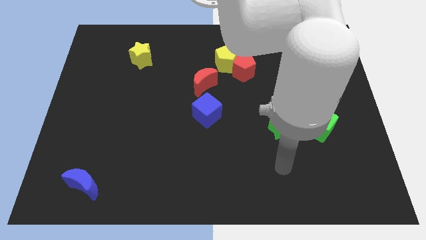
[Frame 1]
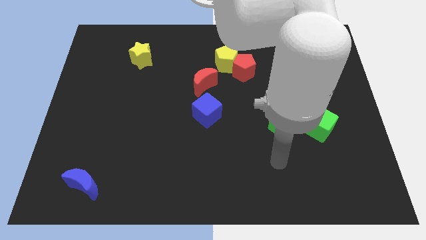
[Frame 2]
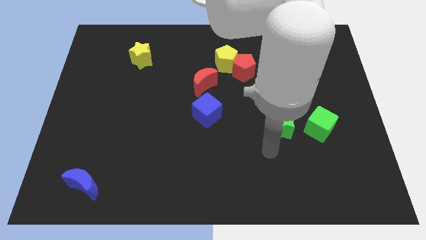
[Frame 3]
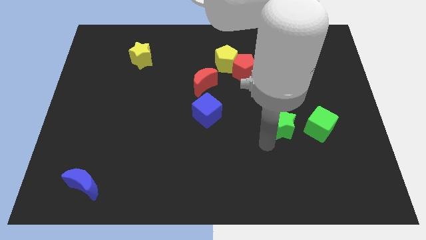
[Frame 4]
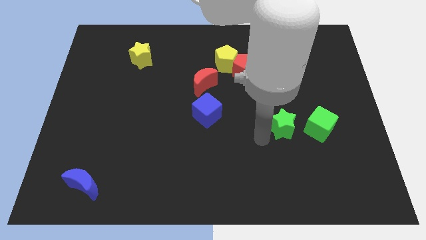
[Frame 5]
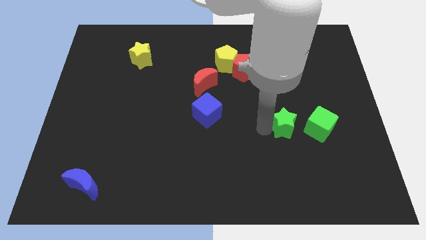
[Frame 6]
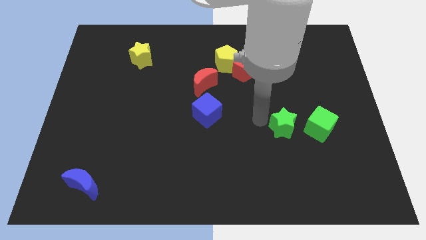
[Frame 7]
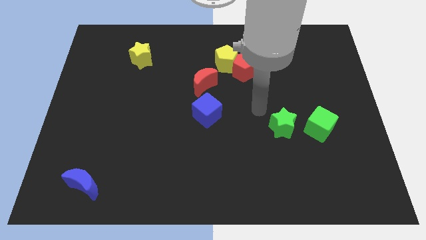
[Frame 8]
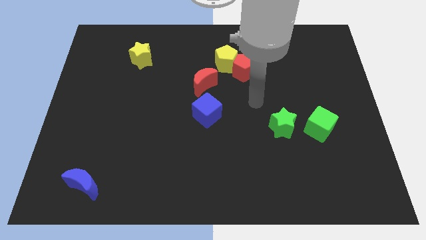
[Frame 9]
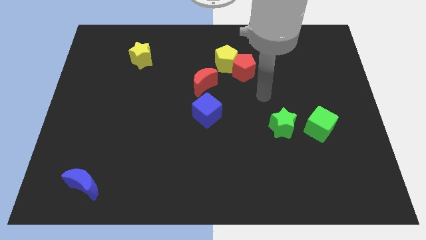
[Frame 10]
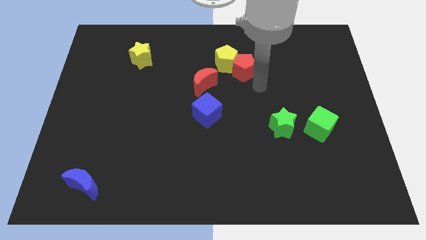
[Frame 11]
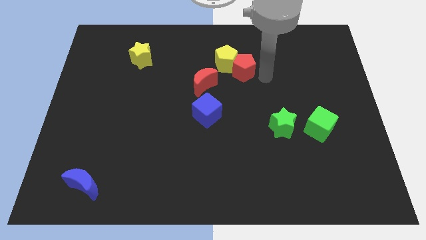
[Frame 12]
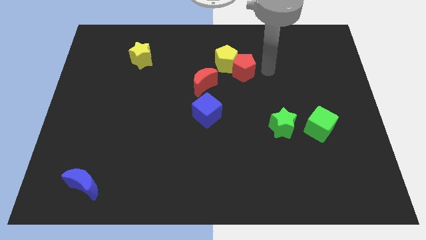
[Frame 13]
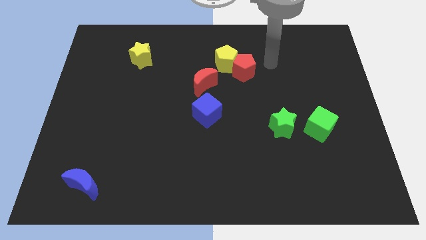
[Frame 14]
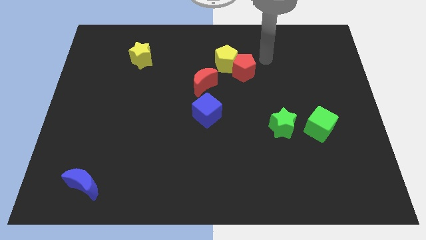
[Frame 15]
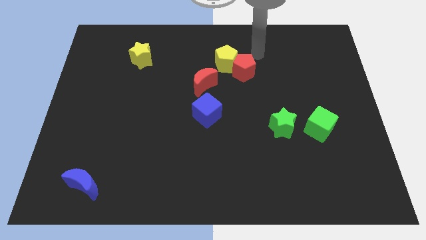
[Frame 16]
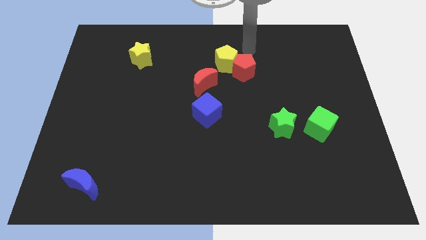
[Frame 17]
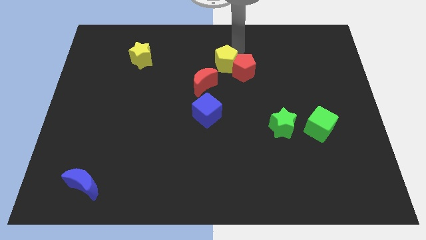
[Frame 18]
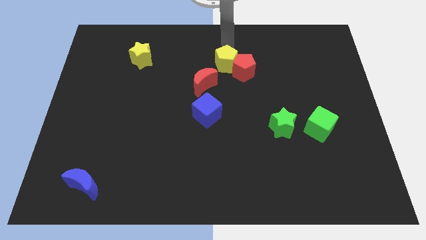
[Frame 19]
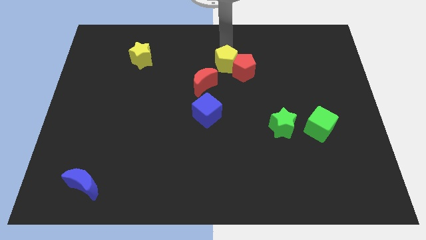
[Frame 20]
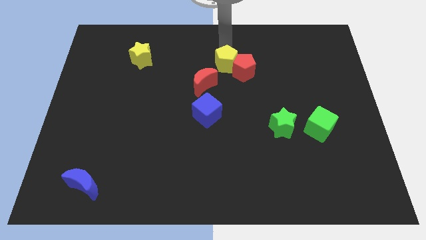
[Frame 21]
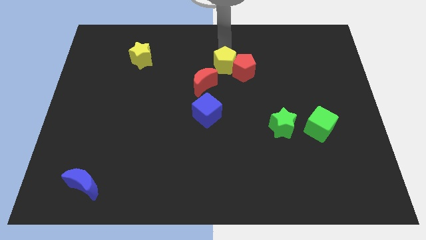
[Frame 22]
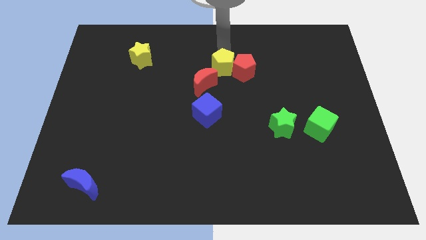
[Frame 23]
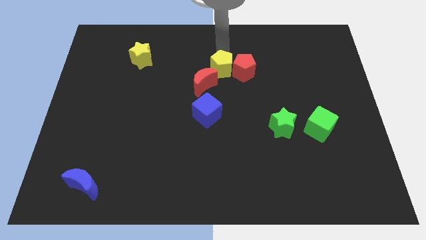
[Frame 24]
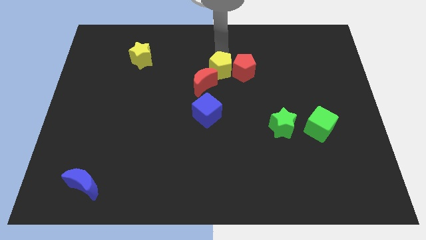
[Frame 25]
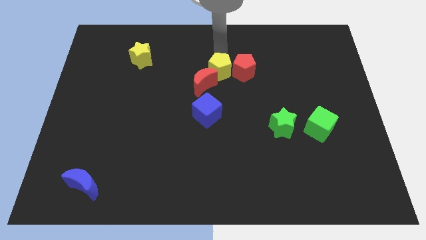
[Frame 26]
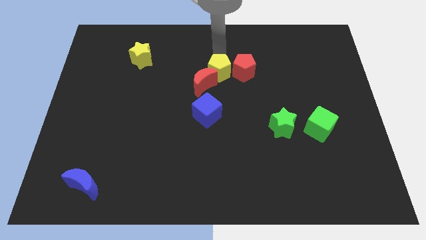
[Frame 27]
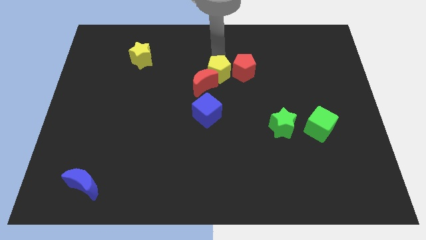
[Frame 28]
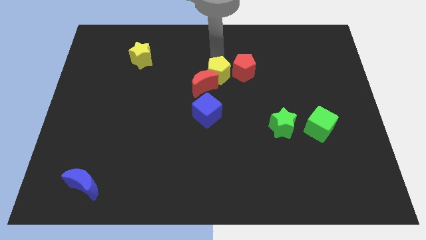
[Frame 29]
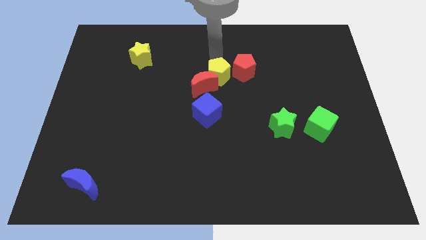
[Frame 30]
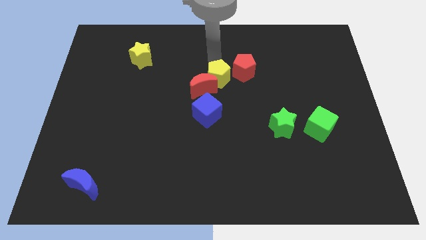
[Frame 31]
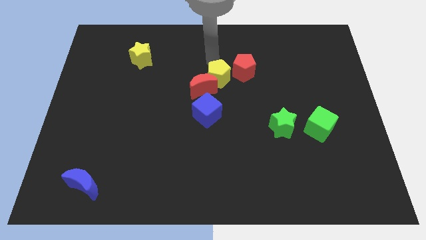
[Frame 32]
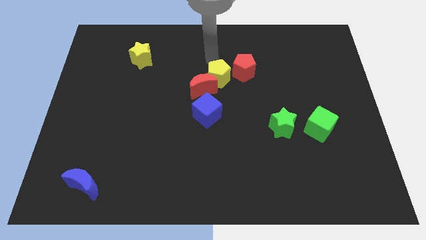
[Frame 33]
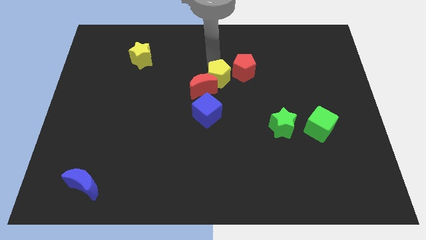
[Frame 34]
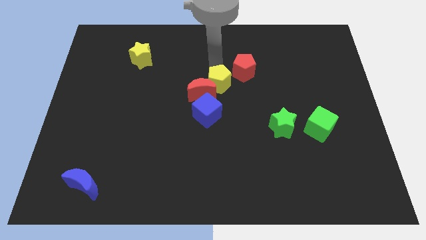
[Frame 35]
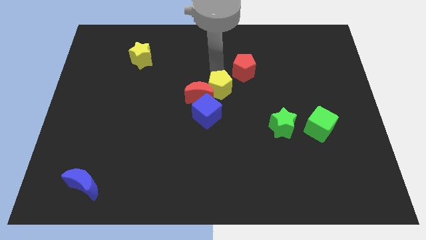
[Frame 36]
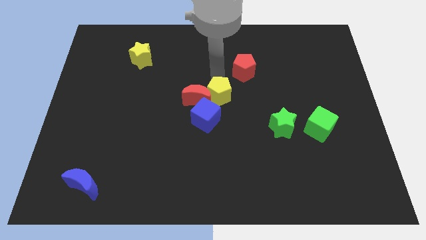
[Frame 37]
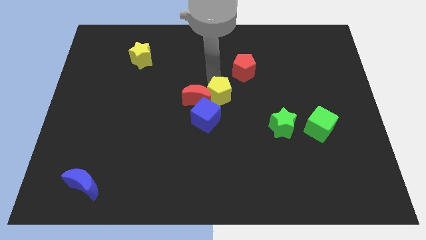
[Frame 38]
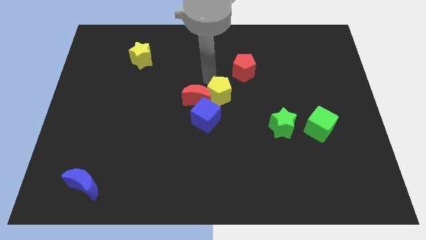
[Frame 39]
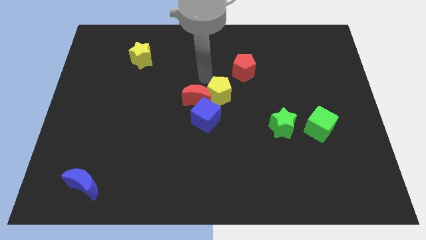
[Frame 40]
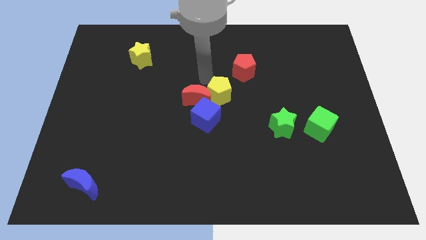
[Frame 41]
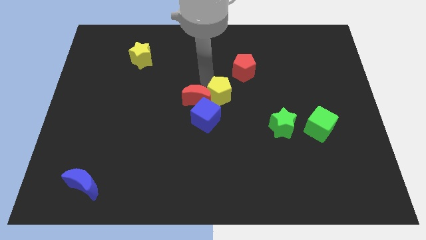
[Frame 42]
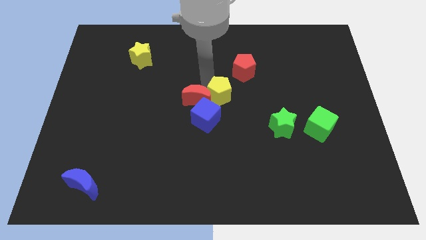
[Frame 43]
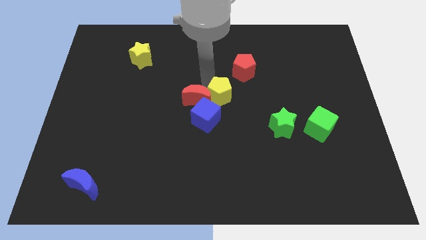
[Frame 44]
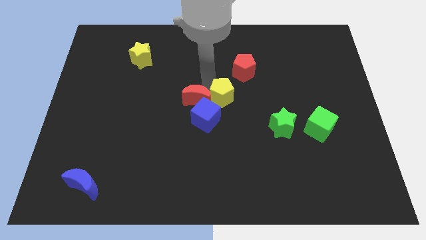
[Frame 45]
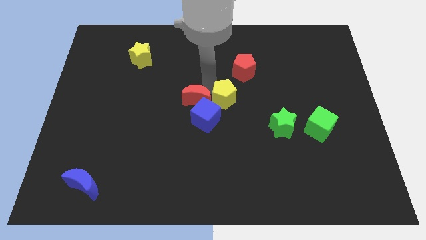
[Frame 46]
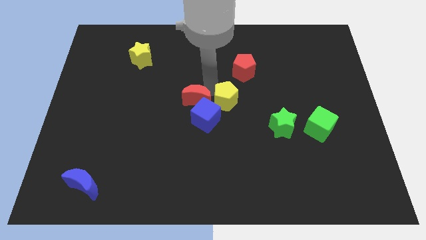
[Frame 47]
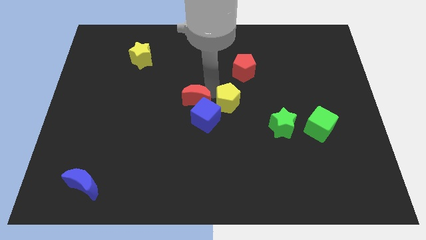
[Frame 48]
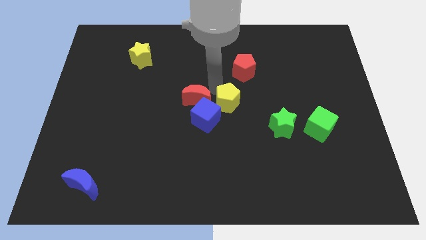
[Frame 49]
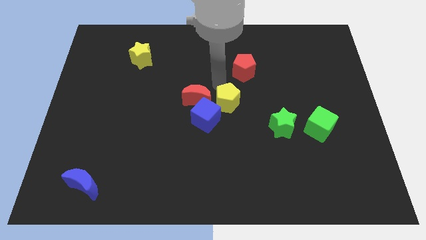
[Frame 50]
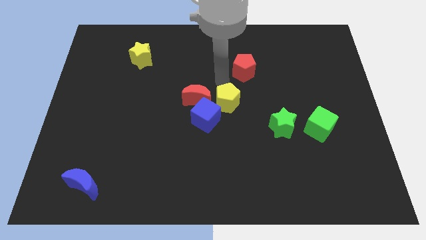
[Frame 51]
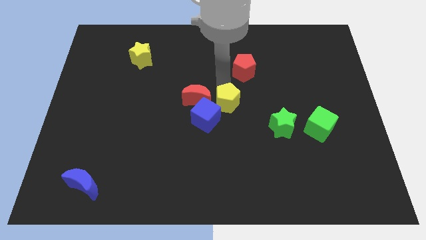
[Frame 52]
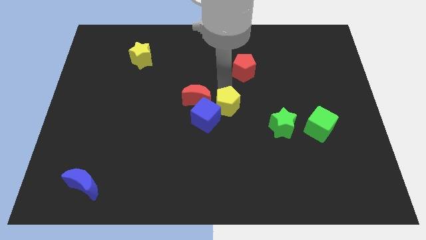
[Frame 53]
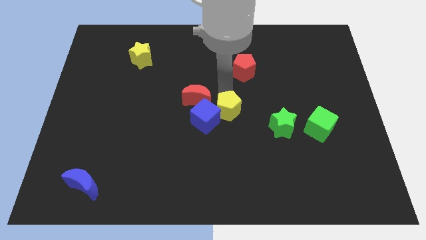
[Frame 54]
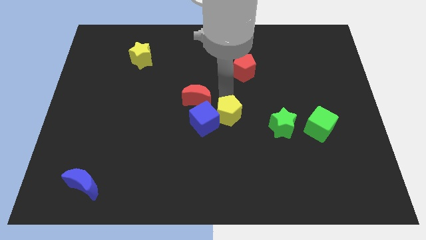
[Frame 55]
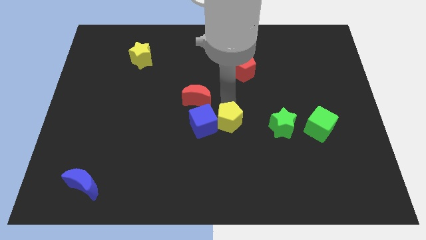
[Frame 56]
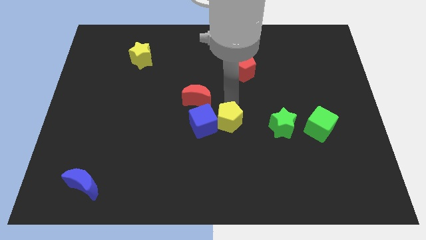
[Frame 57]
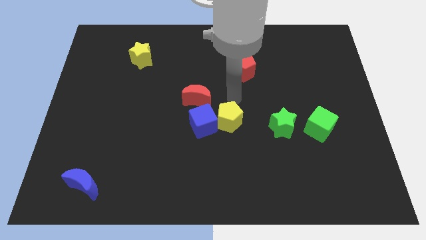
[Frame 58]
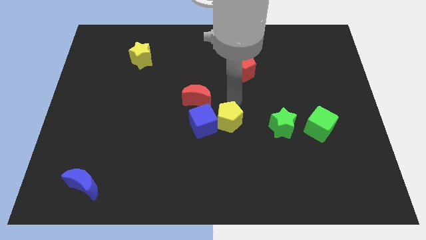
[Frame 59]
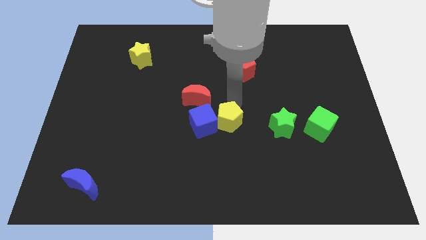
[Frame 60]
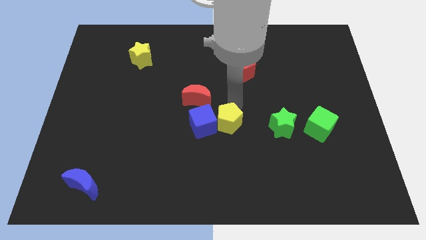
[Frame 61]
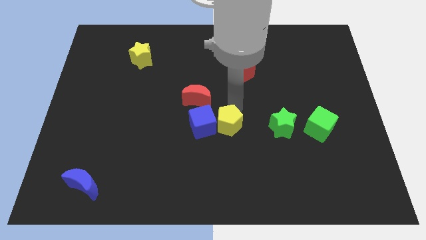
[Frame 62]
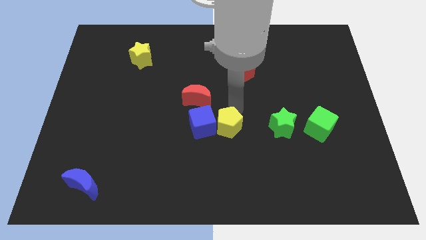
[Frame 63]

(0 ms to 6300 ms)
push the yellow pentagon downwards

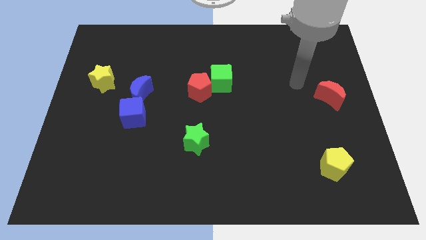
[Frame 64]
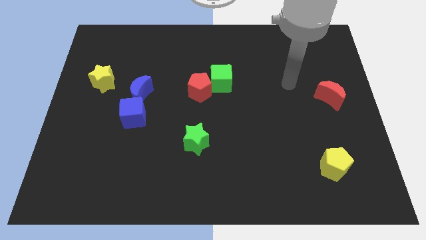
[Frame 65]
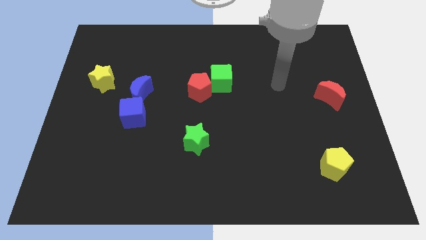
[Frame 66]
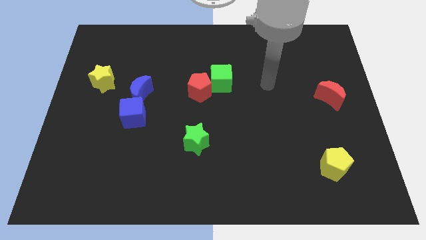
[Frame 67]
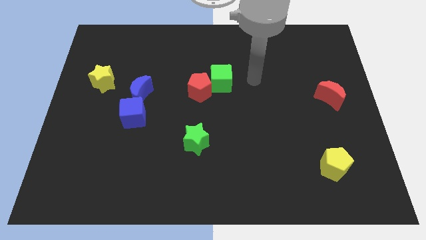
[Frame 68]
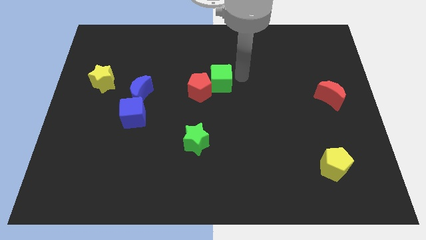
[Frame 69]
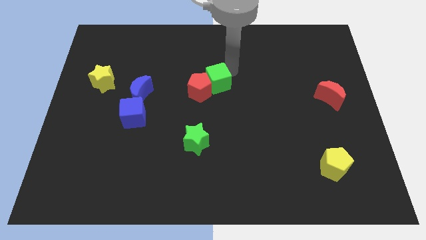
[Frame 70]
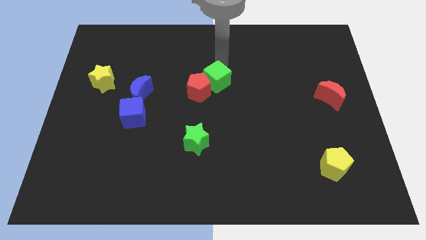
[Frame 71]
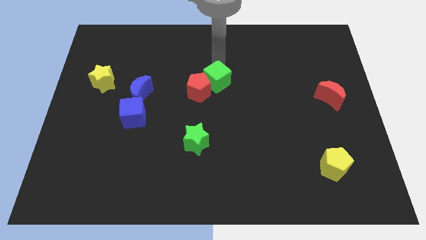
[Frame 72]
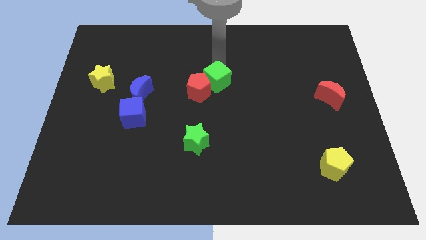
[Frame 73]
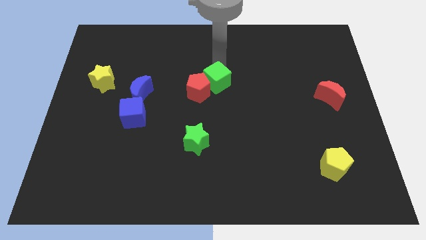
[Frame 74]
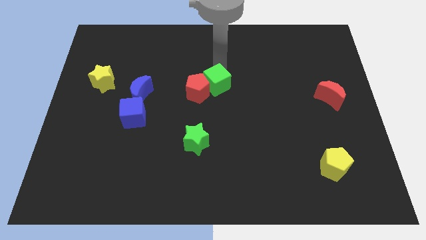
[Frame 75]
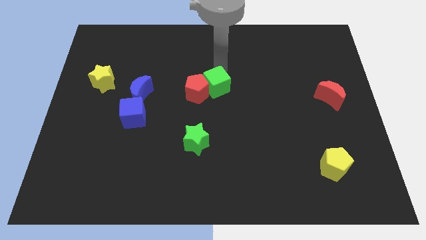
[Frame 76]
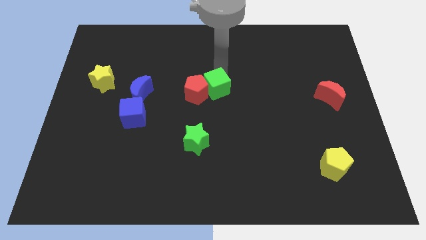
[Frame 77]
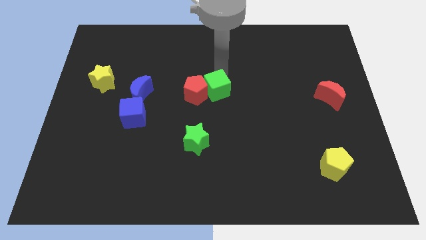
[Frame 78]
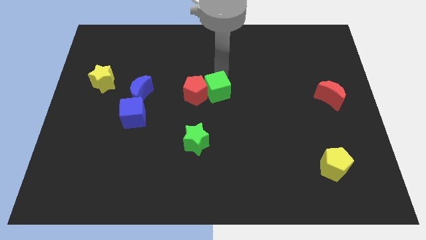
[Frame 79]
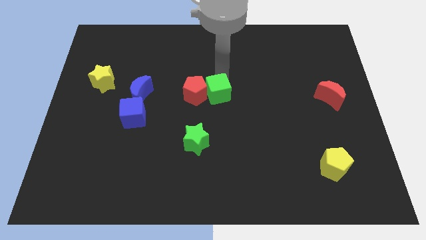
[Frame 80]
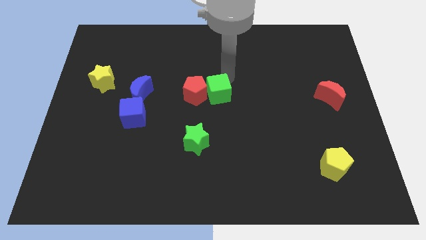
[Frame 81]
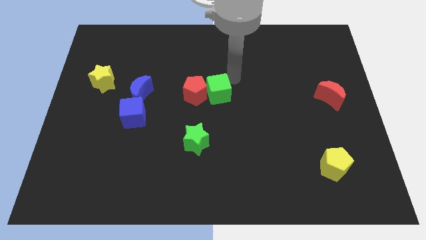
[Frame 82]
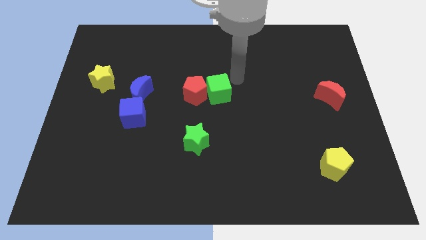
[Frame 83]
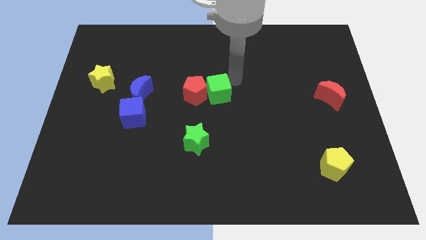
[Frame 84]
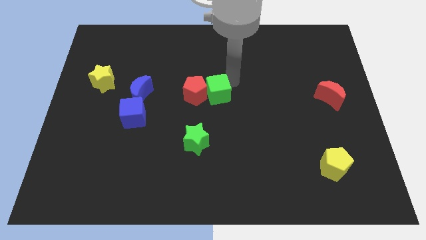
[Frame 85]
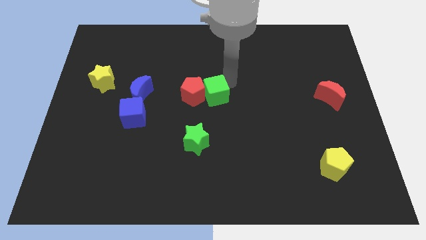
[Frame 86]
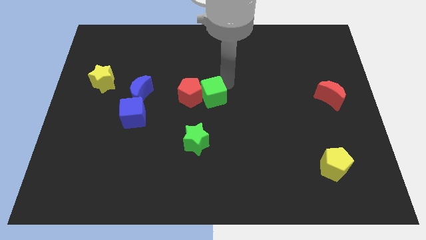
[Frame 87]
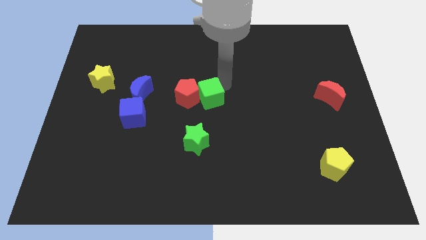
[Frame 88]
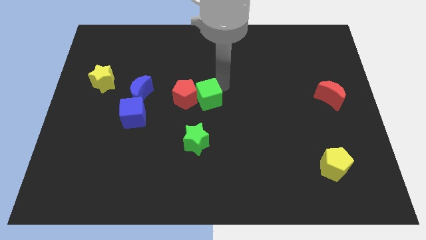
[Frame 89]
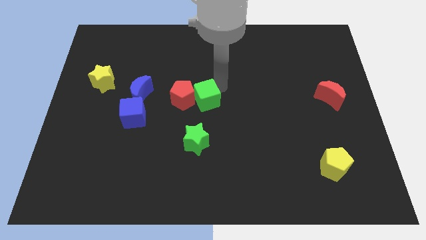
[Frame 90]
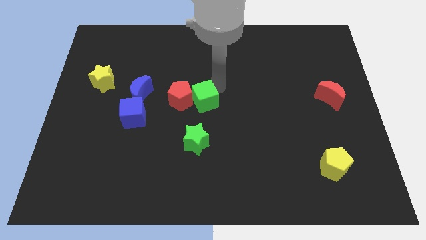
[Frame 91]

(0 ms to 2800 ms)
slightly push the green cube down and then left
